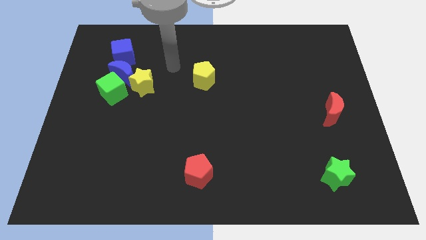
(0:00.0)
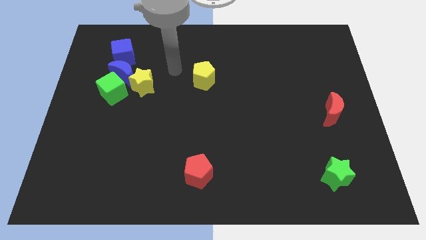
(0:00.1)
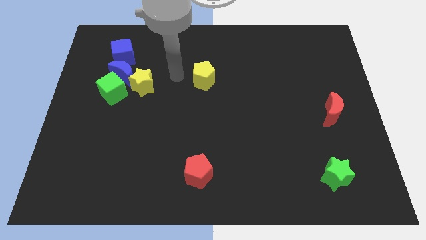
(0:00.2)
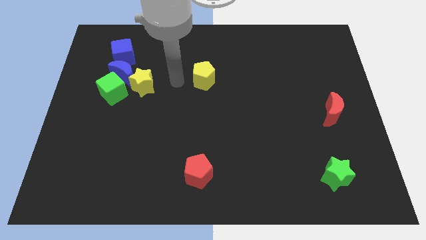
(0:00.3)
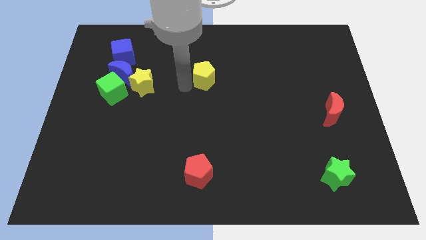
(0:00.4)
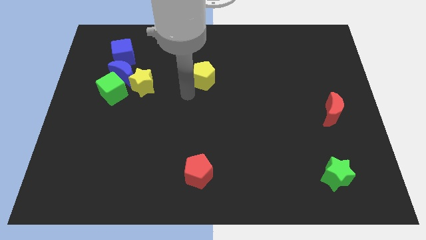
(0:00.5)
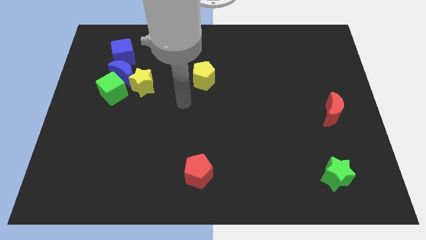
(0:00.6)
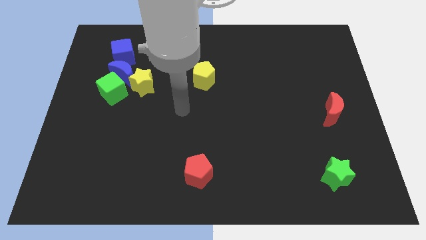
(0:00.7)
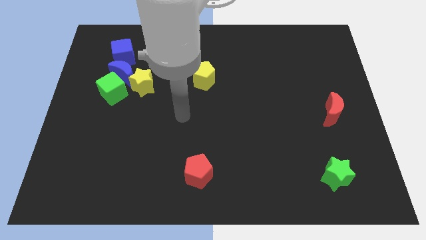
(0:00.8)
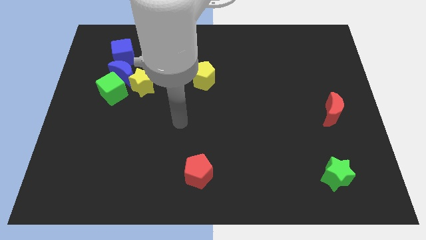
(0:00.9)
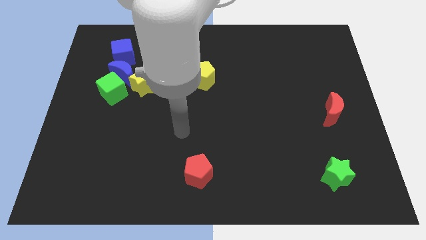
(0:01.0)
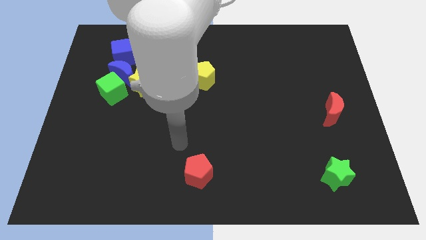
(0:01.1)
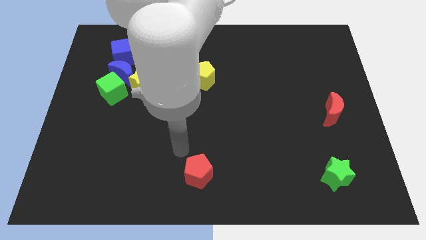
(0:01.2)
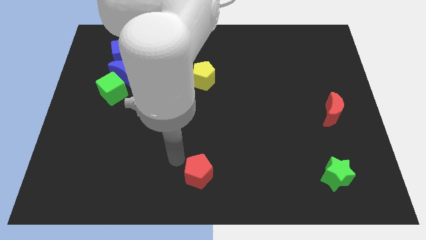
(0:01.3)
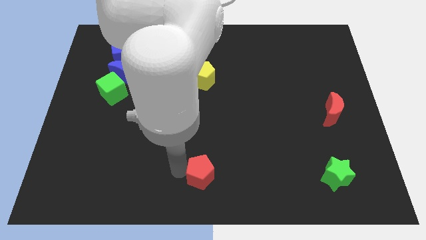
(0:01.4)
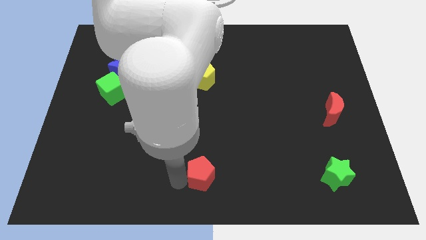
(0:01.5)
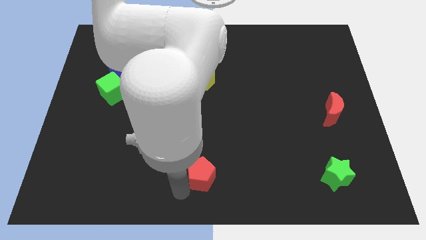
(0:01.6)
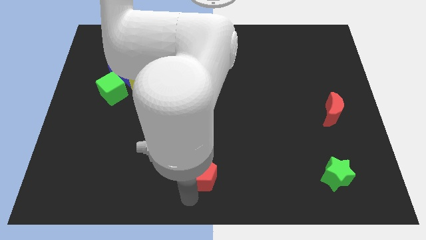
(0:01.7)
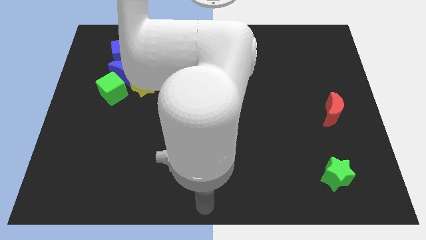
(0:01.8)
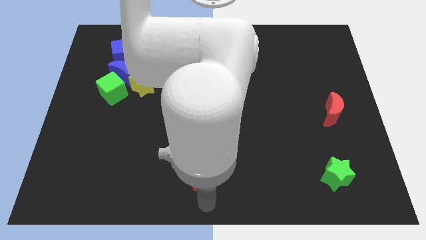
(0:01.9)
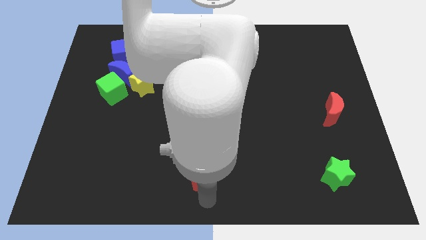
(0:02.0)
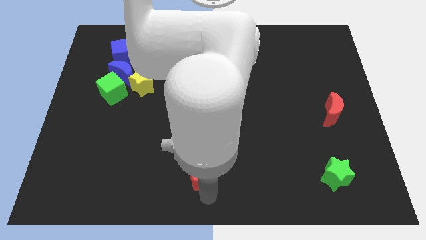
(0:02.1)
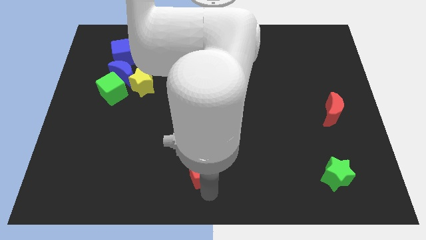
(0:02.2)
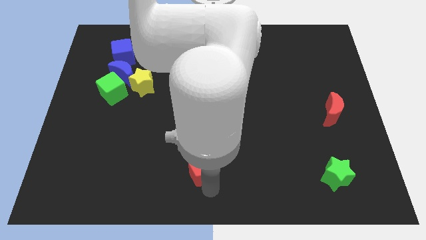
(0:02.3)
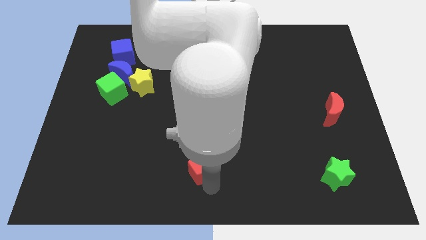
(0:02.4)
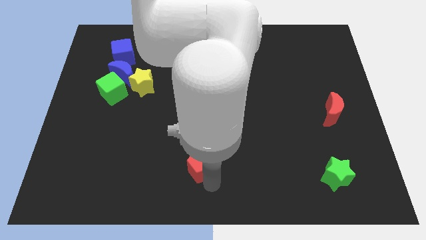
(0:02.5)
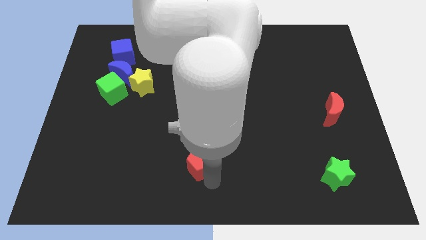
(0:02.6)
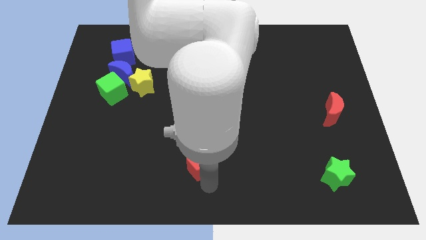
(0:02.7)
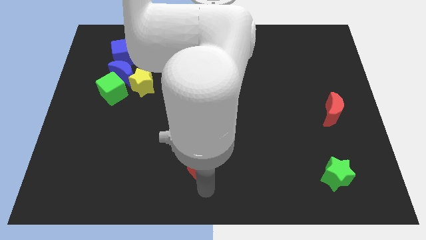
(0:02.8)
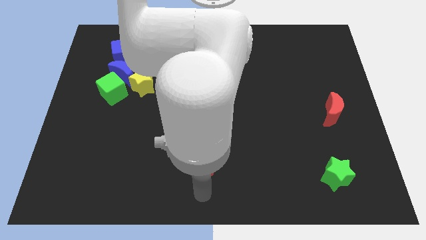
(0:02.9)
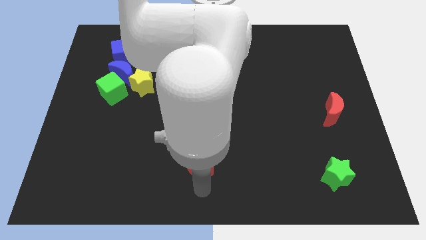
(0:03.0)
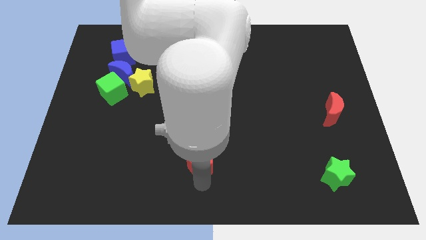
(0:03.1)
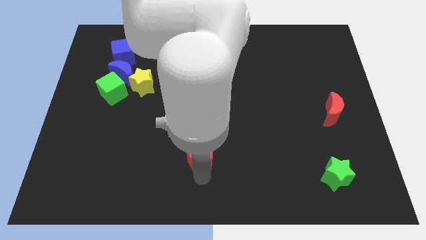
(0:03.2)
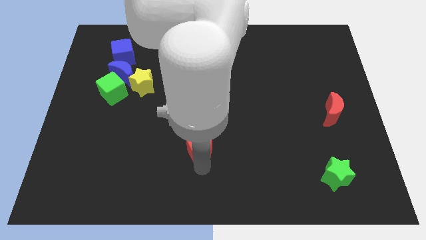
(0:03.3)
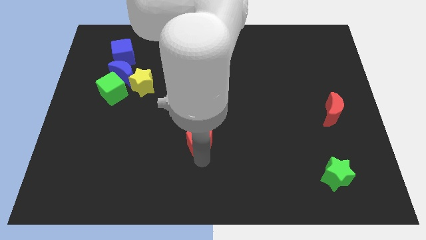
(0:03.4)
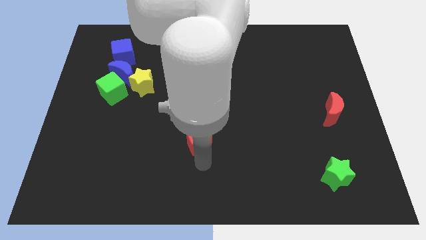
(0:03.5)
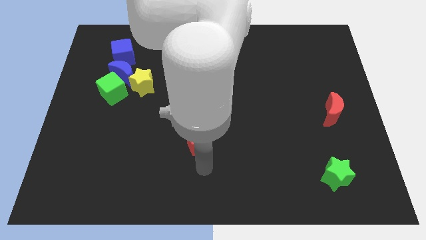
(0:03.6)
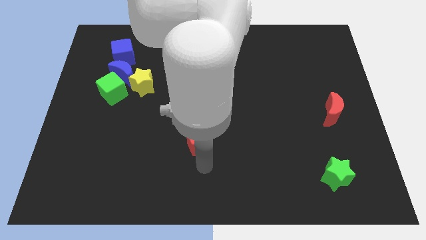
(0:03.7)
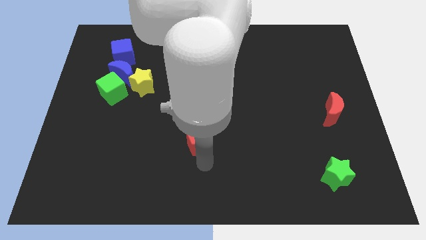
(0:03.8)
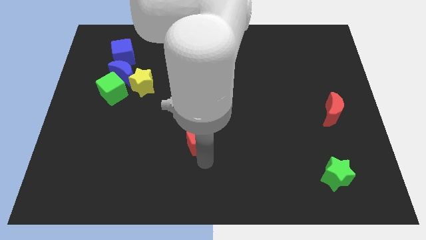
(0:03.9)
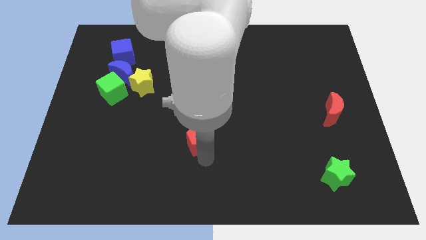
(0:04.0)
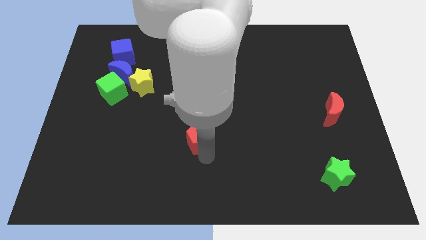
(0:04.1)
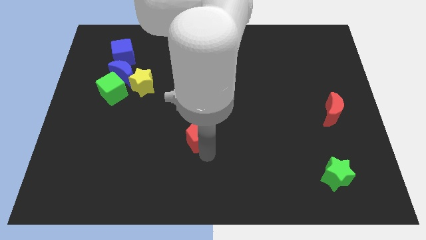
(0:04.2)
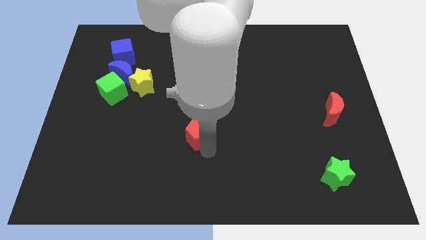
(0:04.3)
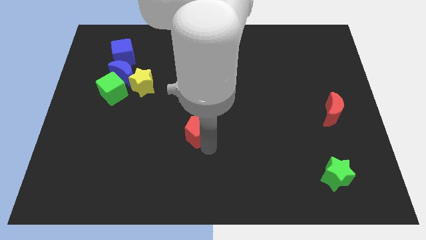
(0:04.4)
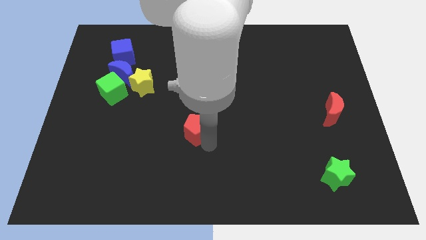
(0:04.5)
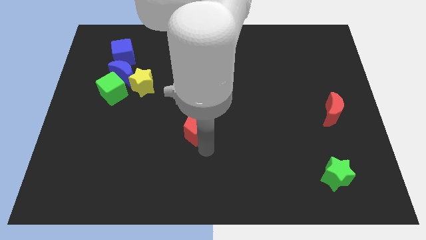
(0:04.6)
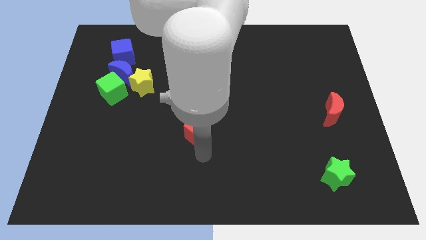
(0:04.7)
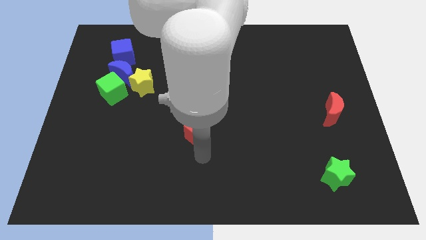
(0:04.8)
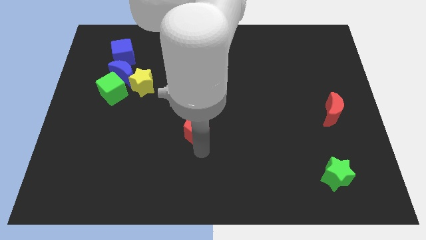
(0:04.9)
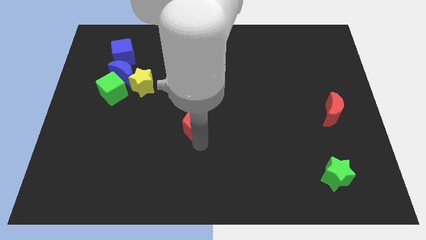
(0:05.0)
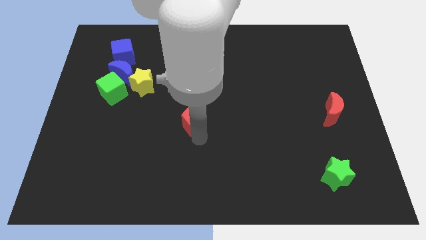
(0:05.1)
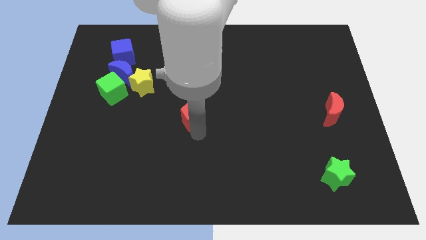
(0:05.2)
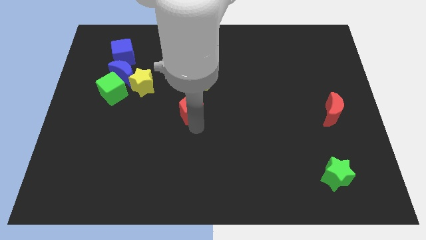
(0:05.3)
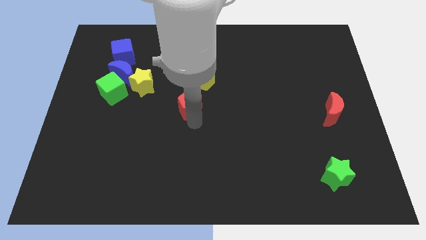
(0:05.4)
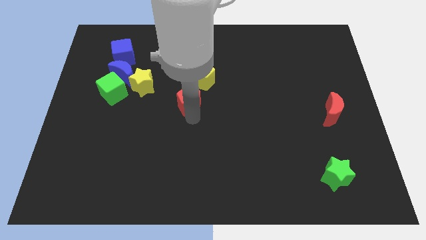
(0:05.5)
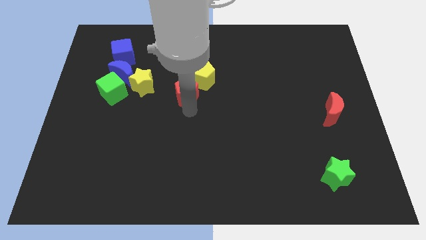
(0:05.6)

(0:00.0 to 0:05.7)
slide the red pentagon towards the yellow pentagon

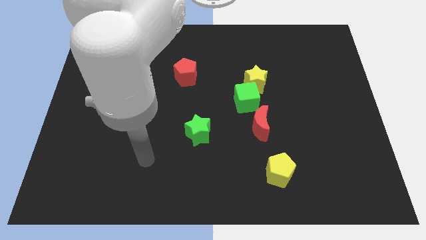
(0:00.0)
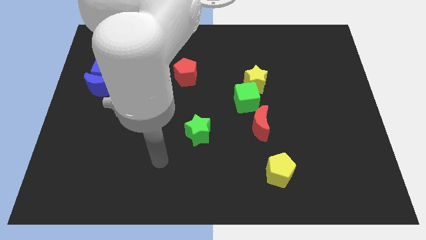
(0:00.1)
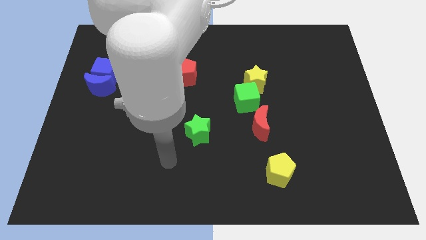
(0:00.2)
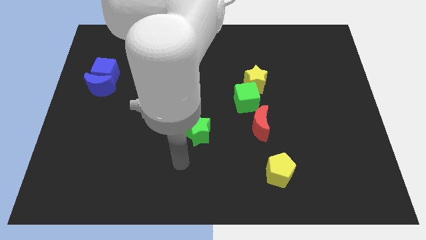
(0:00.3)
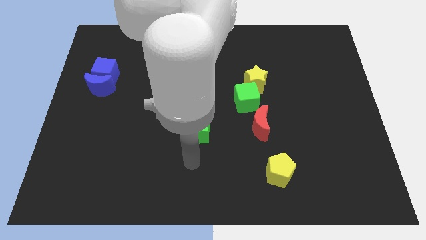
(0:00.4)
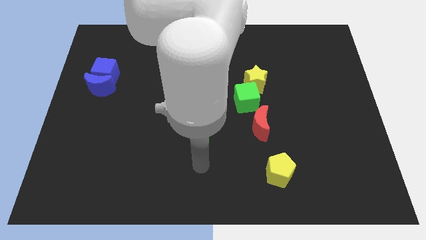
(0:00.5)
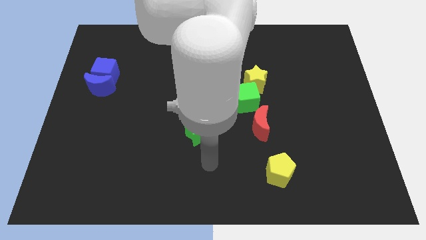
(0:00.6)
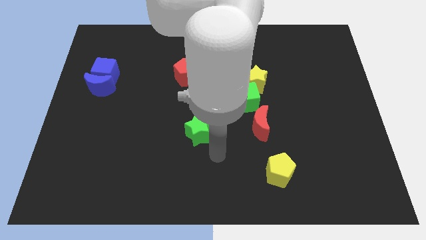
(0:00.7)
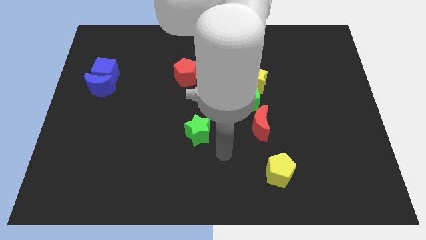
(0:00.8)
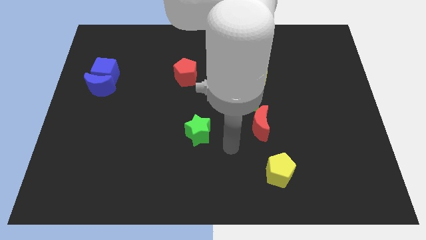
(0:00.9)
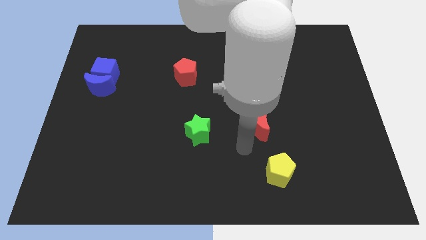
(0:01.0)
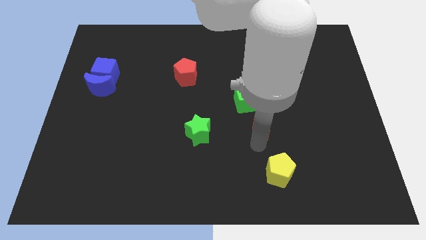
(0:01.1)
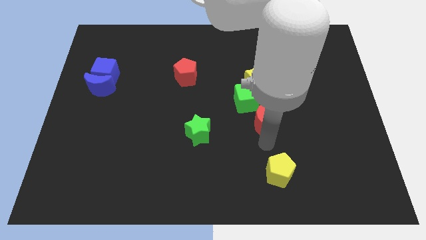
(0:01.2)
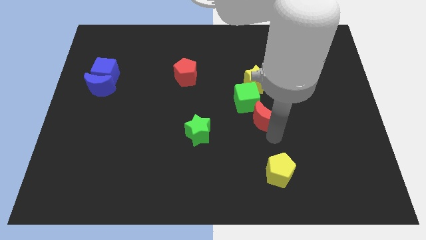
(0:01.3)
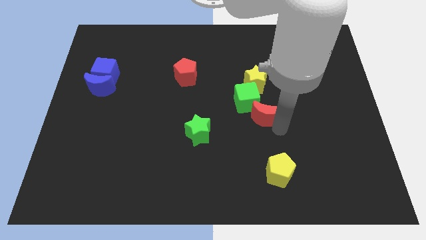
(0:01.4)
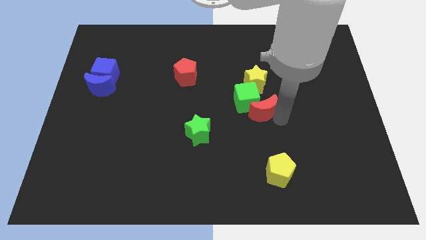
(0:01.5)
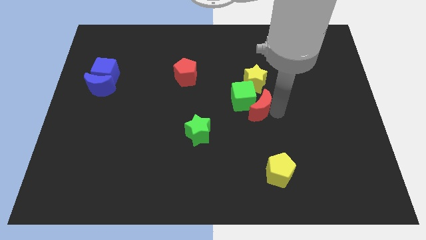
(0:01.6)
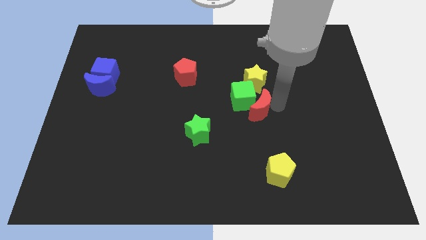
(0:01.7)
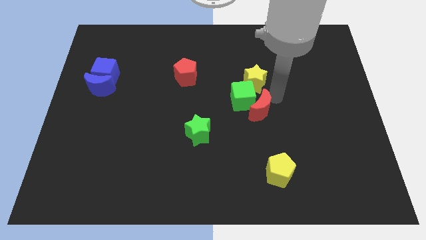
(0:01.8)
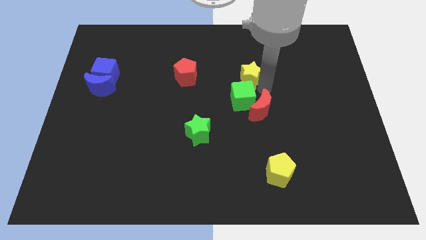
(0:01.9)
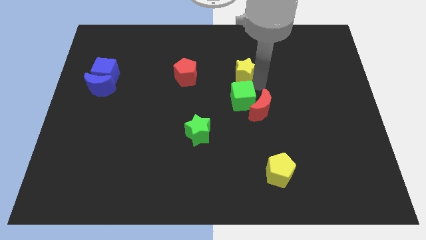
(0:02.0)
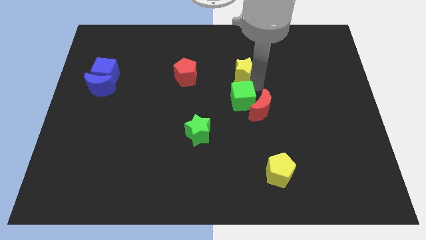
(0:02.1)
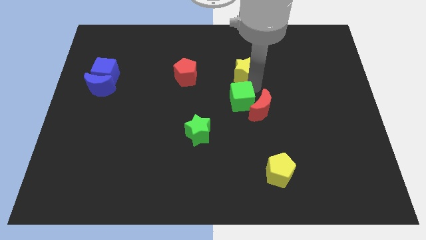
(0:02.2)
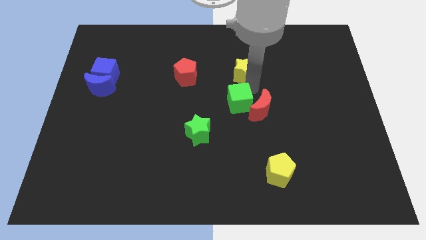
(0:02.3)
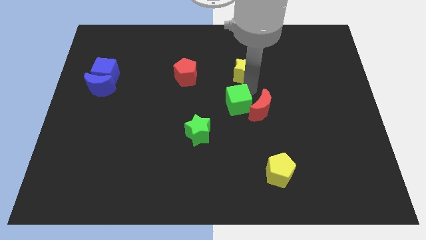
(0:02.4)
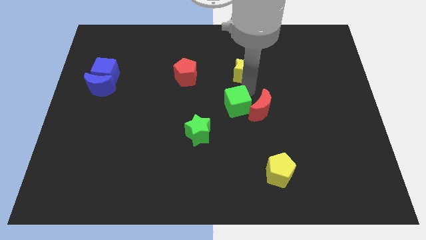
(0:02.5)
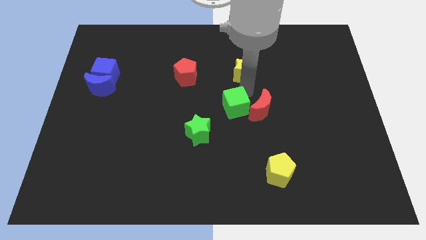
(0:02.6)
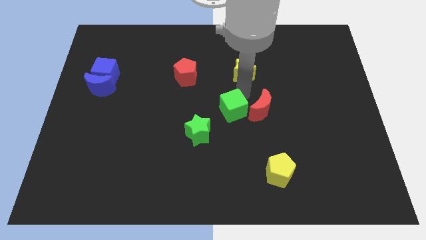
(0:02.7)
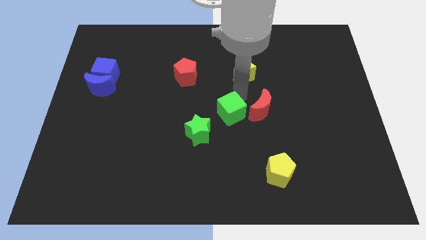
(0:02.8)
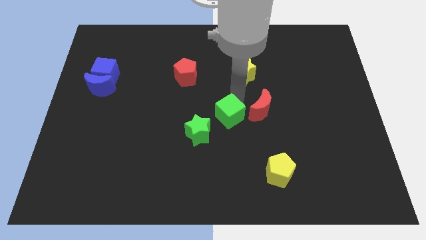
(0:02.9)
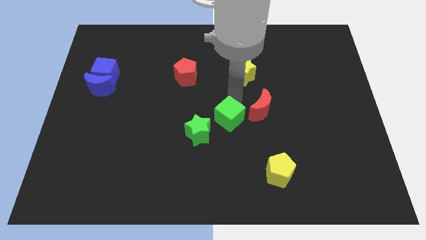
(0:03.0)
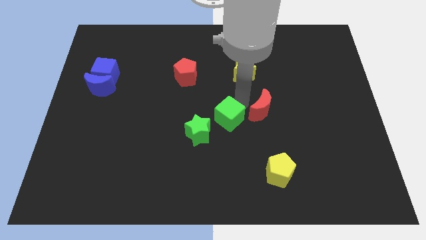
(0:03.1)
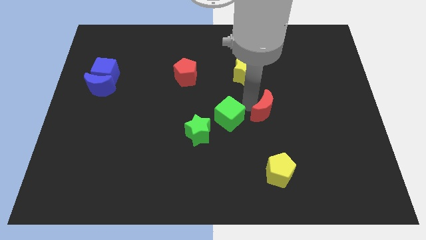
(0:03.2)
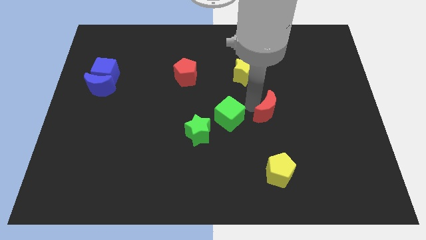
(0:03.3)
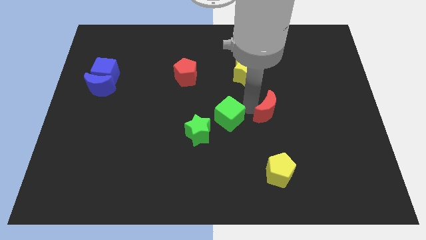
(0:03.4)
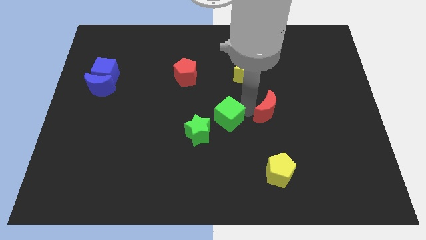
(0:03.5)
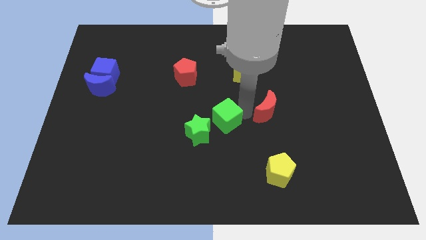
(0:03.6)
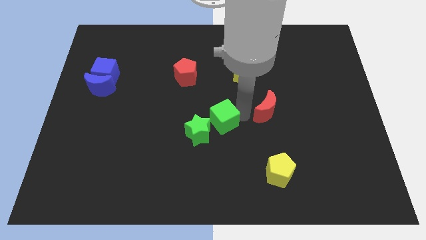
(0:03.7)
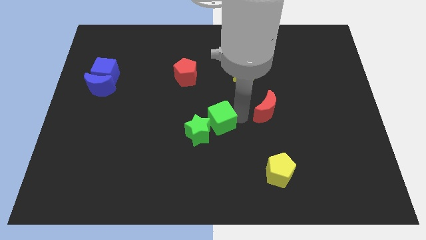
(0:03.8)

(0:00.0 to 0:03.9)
push the green cube to the green star
